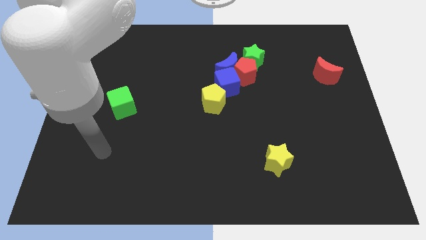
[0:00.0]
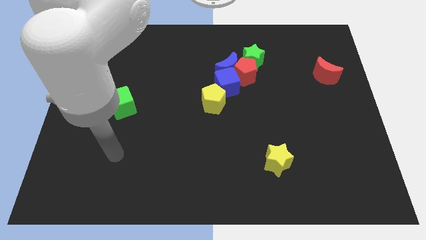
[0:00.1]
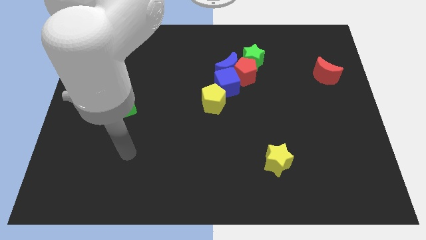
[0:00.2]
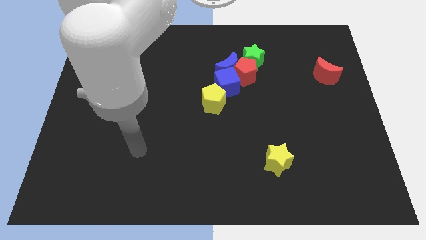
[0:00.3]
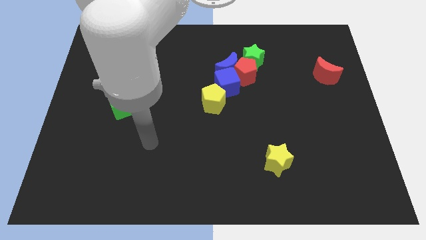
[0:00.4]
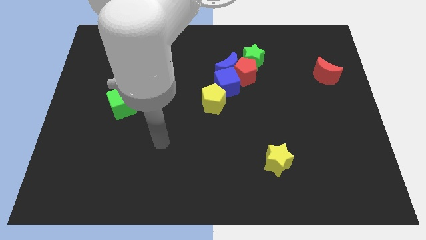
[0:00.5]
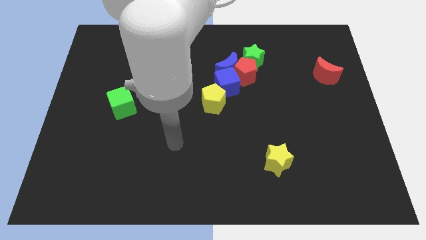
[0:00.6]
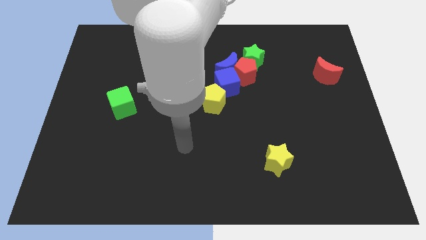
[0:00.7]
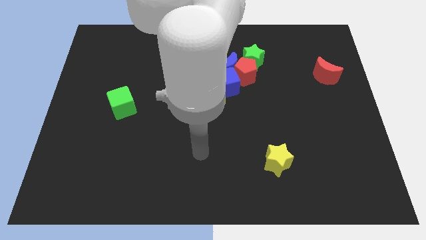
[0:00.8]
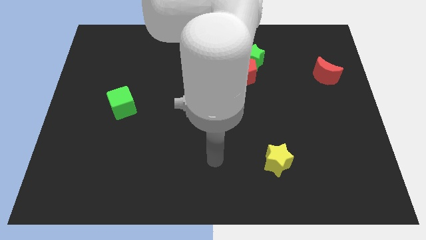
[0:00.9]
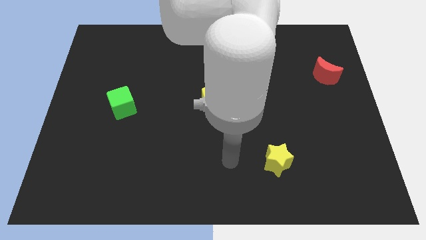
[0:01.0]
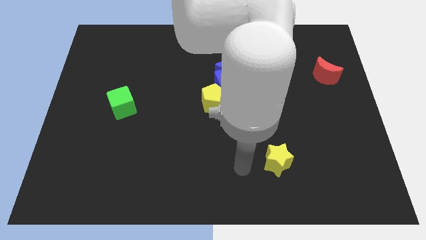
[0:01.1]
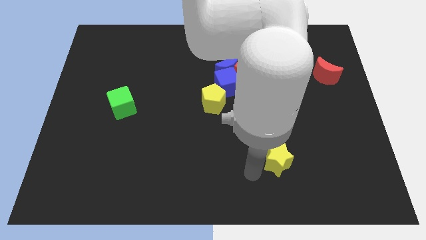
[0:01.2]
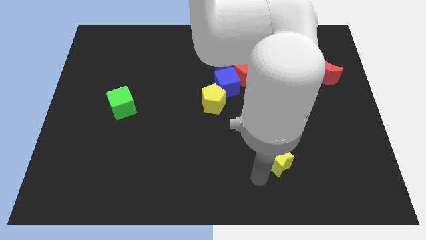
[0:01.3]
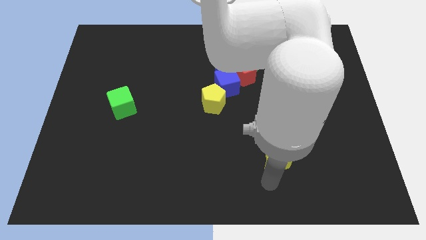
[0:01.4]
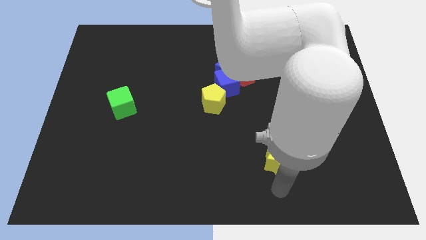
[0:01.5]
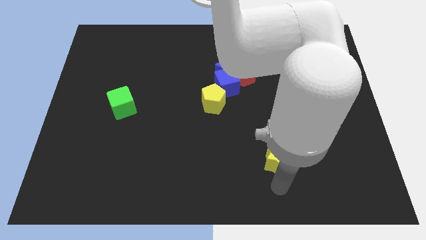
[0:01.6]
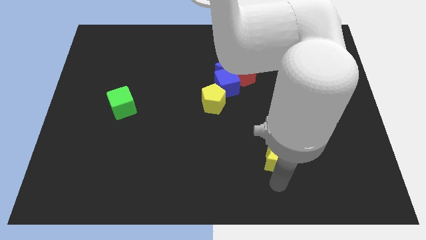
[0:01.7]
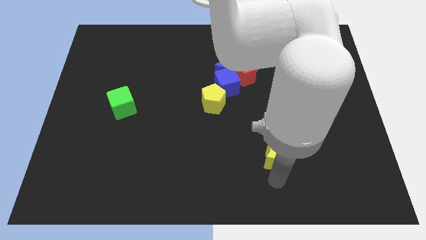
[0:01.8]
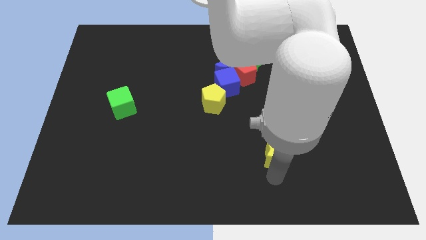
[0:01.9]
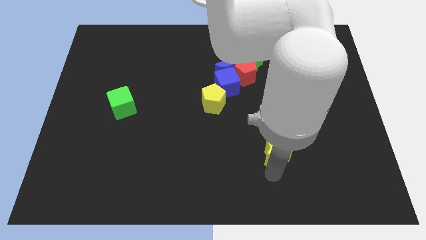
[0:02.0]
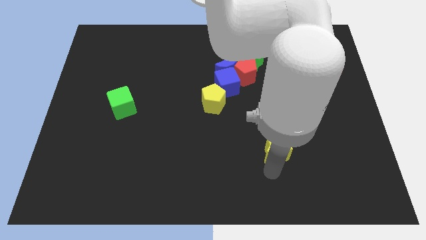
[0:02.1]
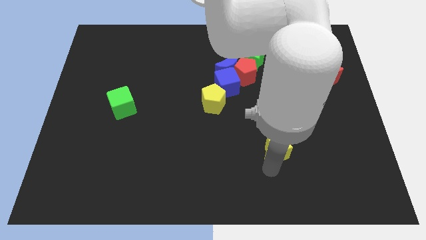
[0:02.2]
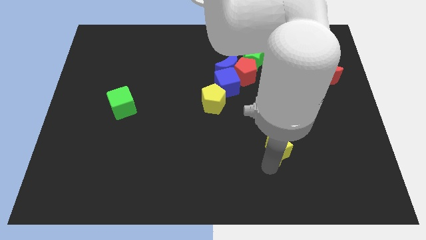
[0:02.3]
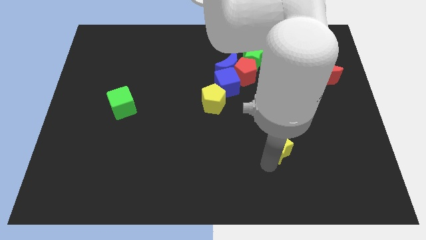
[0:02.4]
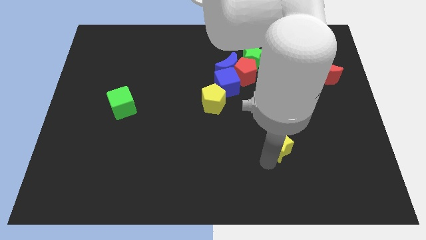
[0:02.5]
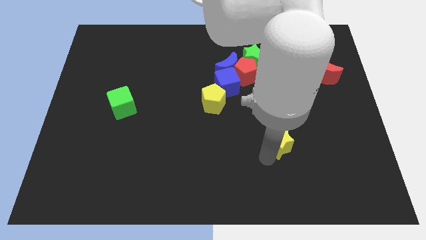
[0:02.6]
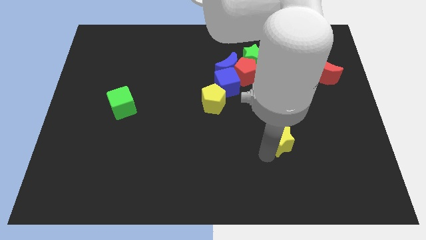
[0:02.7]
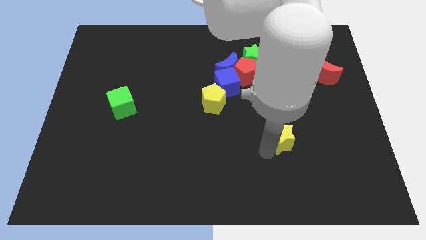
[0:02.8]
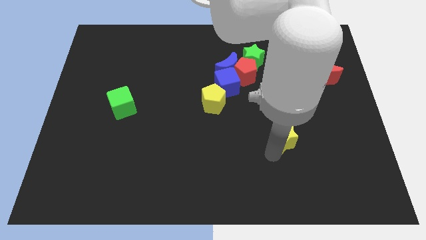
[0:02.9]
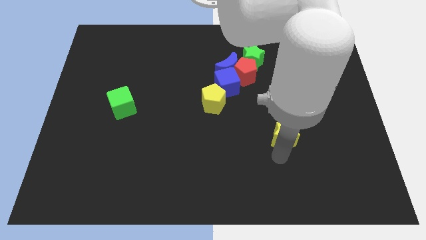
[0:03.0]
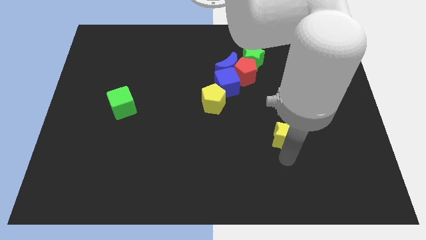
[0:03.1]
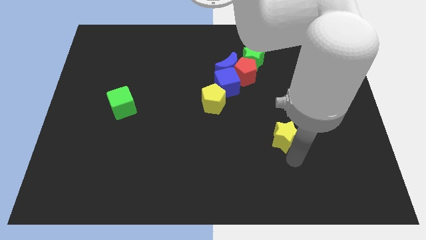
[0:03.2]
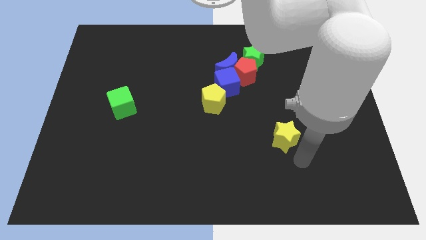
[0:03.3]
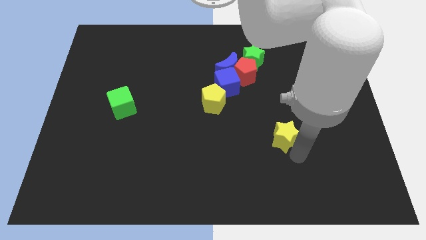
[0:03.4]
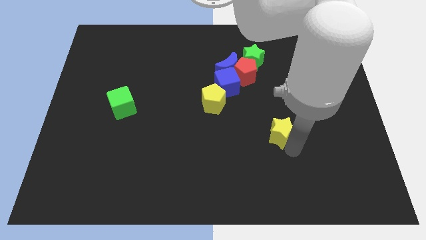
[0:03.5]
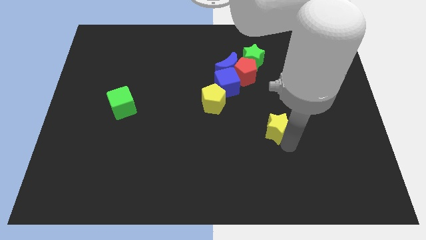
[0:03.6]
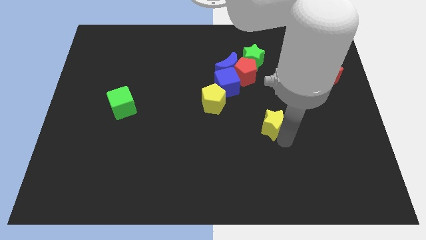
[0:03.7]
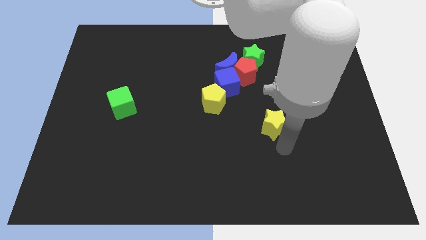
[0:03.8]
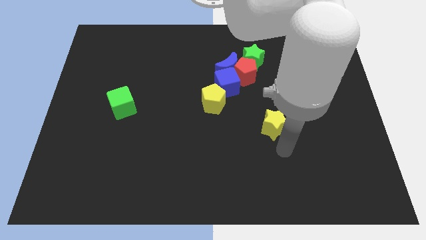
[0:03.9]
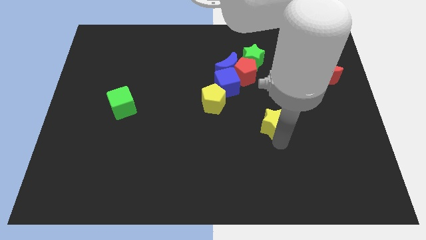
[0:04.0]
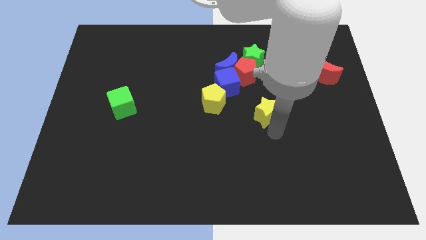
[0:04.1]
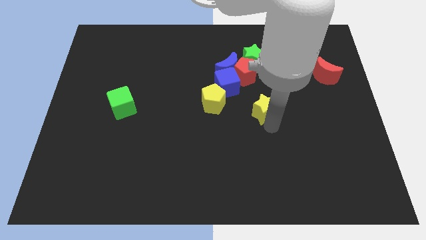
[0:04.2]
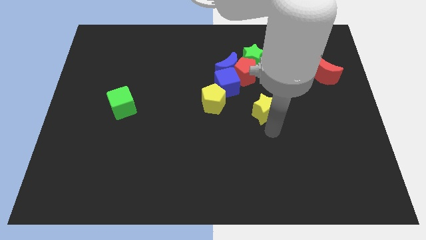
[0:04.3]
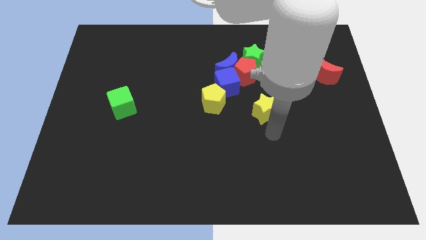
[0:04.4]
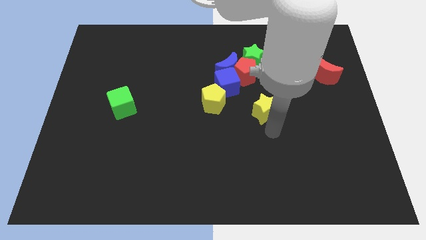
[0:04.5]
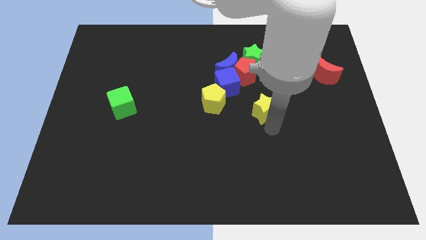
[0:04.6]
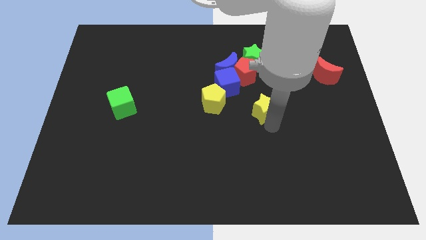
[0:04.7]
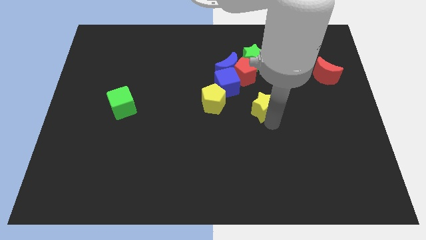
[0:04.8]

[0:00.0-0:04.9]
slide the yellow star to the bottom of the green star

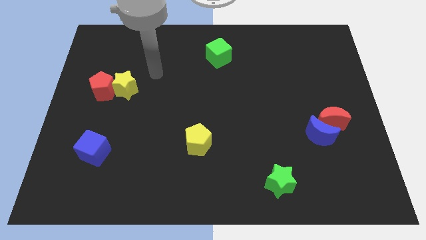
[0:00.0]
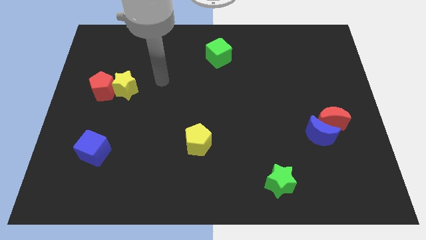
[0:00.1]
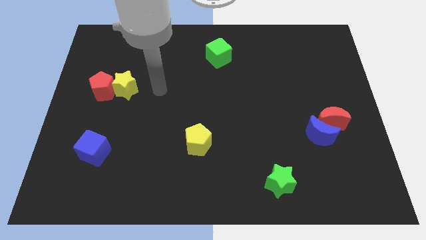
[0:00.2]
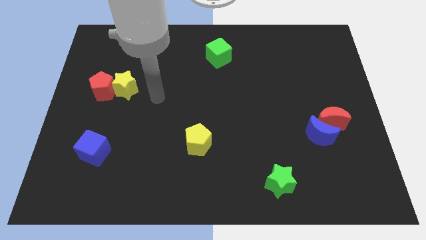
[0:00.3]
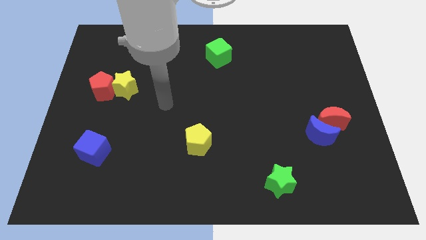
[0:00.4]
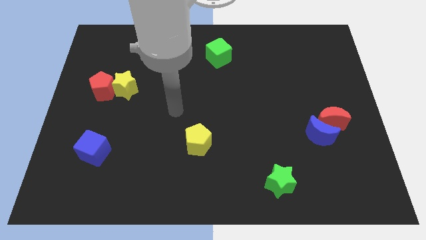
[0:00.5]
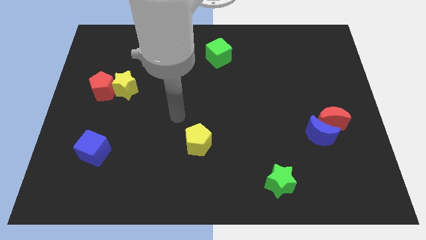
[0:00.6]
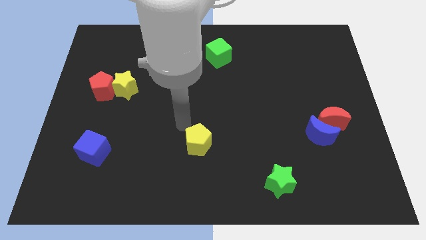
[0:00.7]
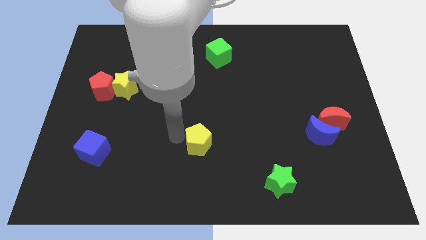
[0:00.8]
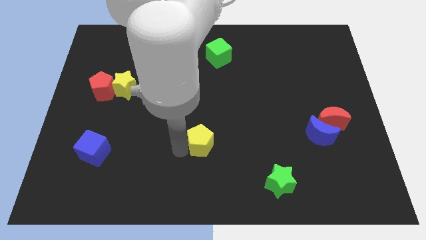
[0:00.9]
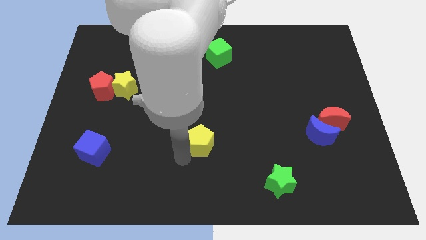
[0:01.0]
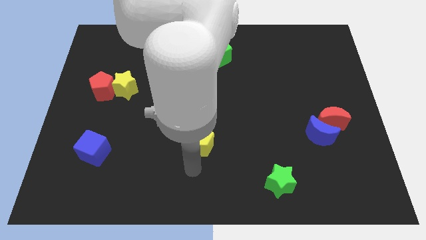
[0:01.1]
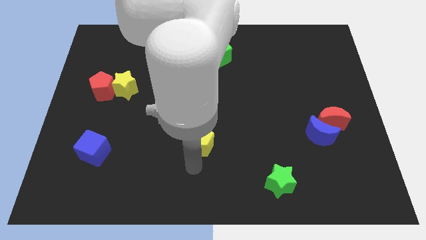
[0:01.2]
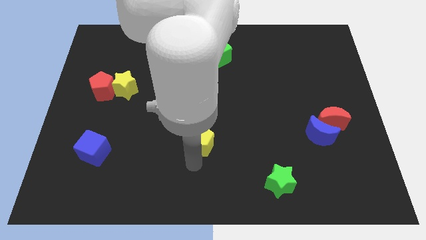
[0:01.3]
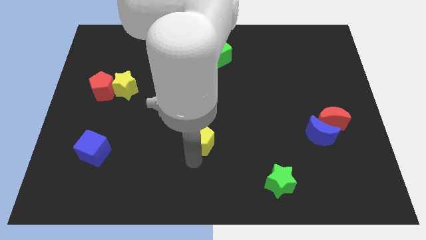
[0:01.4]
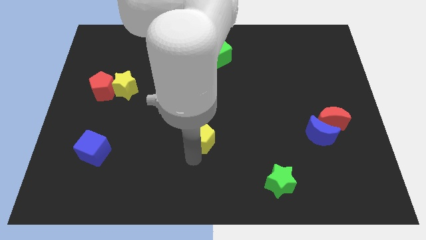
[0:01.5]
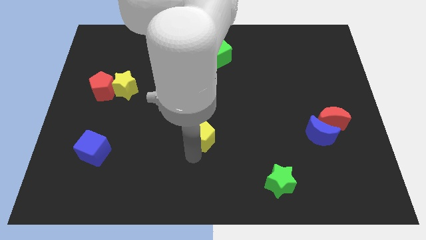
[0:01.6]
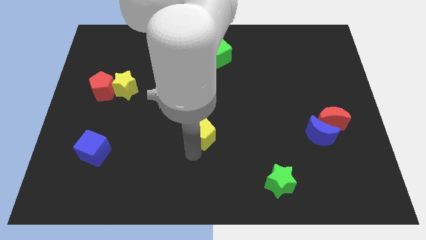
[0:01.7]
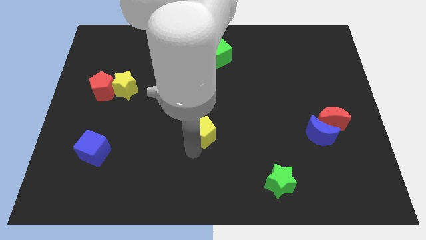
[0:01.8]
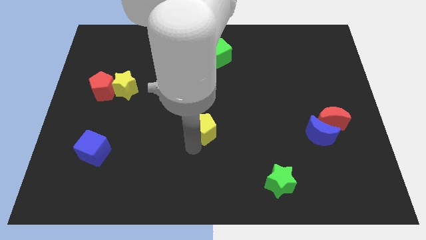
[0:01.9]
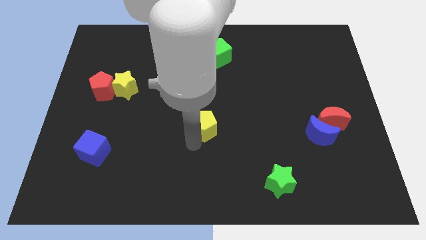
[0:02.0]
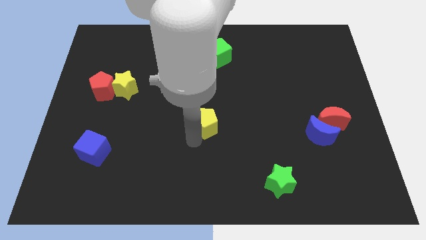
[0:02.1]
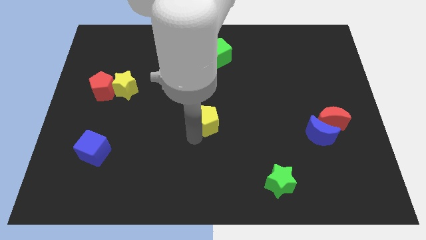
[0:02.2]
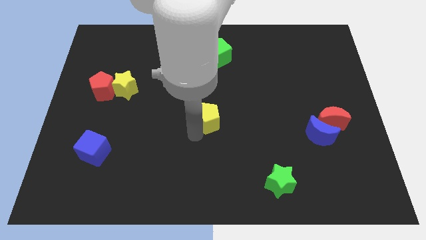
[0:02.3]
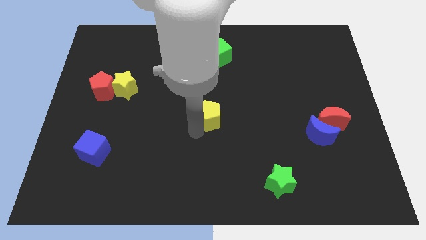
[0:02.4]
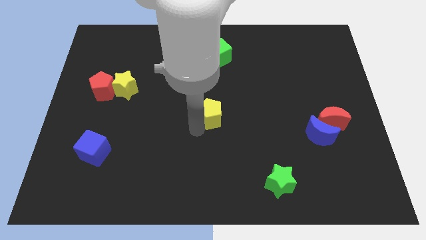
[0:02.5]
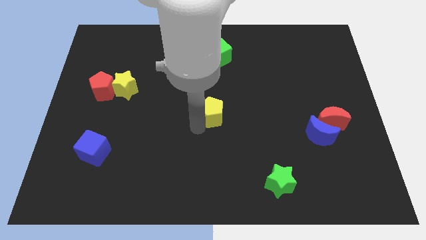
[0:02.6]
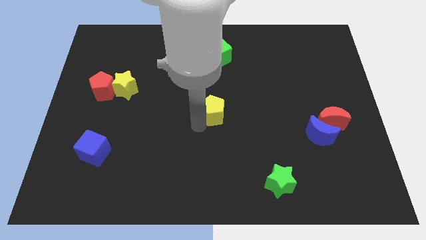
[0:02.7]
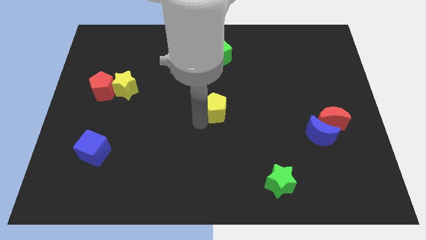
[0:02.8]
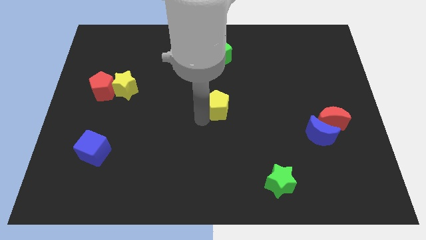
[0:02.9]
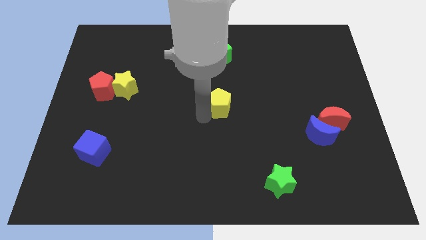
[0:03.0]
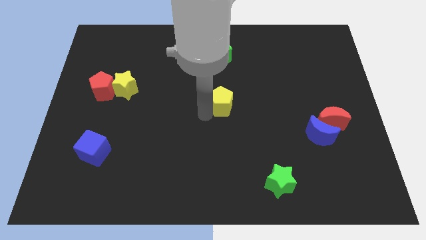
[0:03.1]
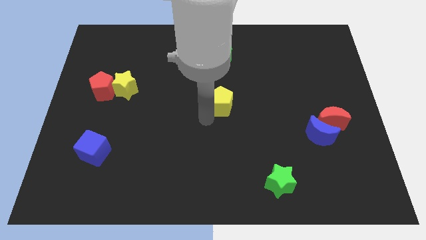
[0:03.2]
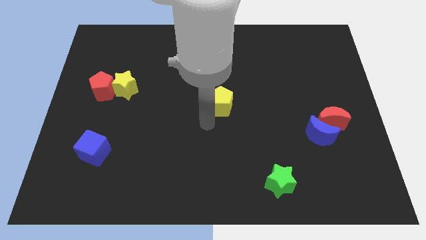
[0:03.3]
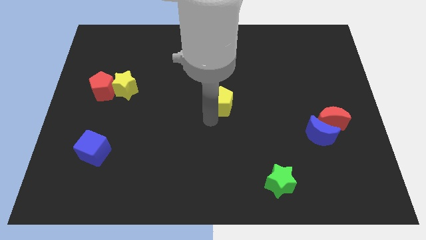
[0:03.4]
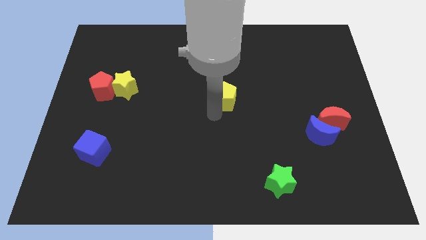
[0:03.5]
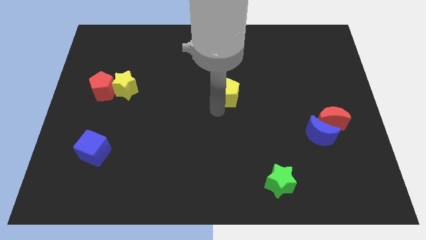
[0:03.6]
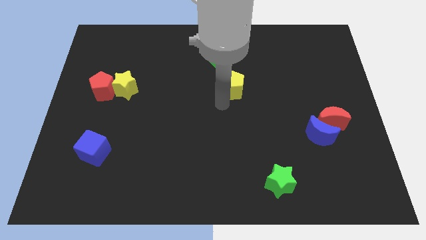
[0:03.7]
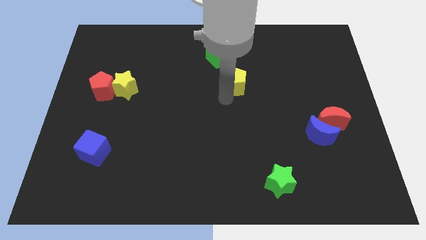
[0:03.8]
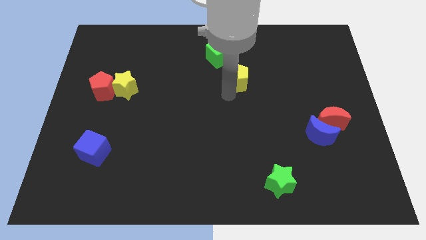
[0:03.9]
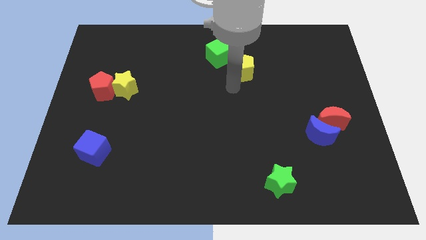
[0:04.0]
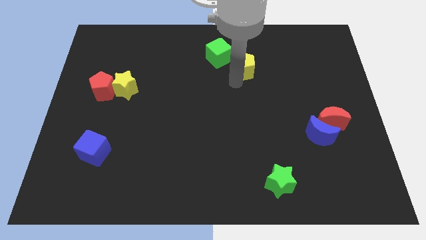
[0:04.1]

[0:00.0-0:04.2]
push the yellow pentagon right of the green cube
